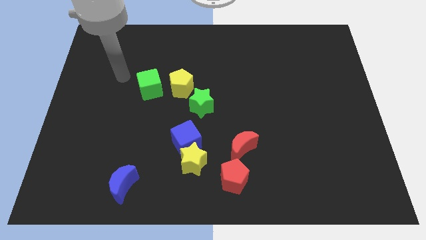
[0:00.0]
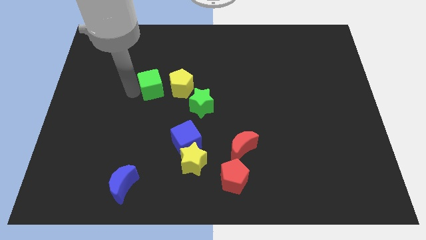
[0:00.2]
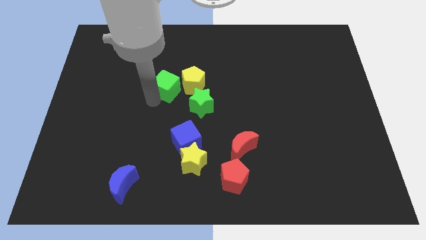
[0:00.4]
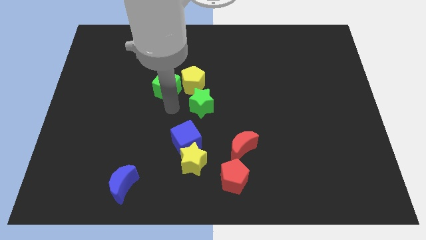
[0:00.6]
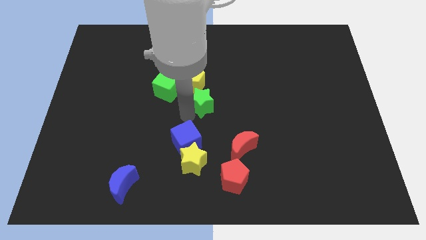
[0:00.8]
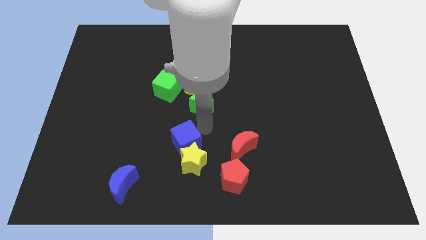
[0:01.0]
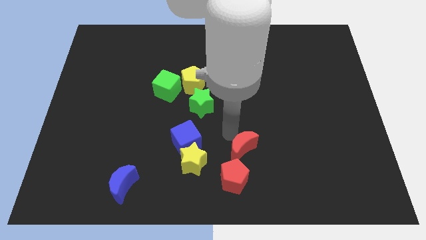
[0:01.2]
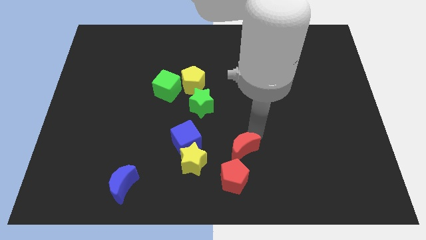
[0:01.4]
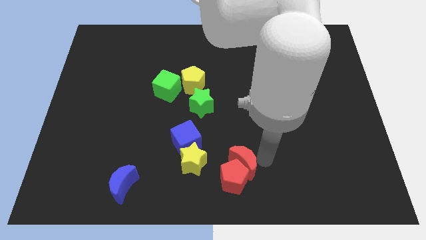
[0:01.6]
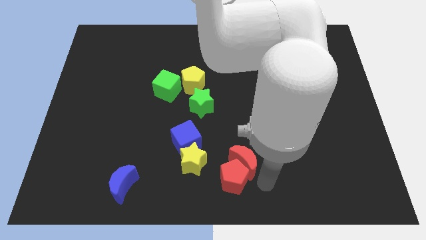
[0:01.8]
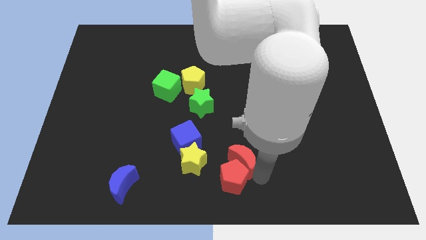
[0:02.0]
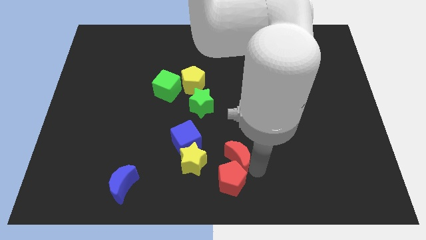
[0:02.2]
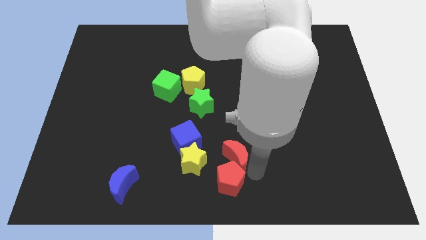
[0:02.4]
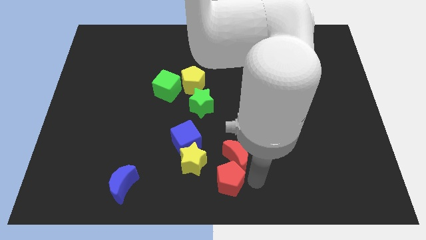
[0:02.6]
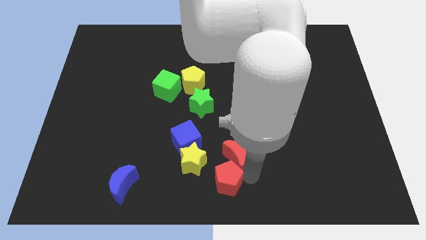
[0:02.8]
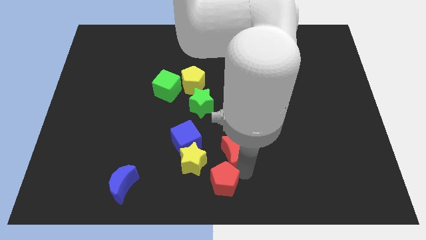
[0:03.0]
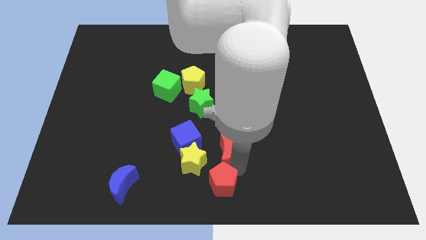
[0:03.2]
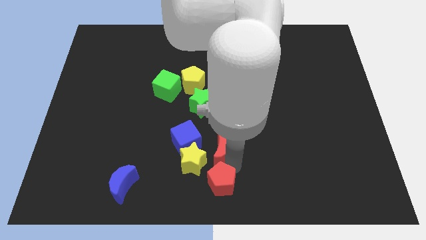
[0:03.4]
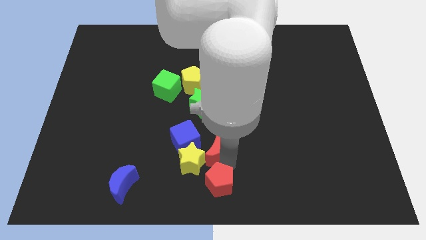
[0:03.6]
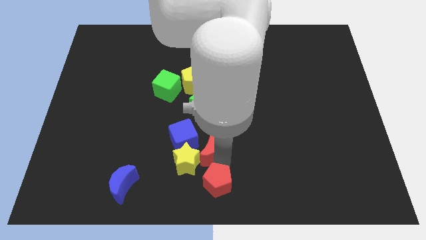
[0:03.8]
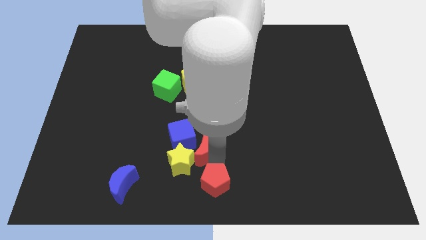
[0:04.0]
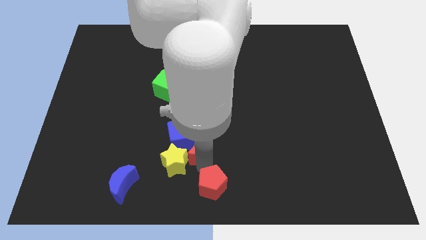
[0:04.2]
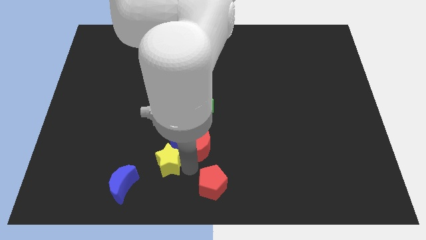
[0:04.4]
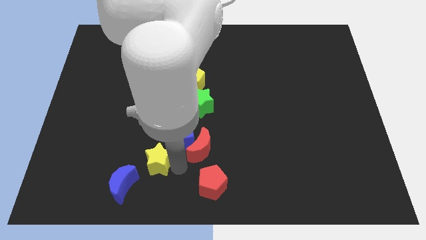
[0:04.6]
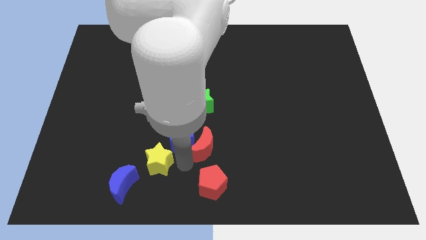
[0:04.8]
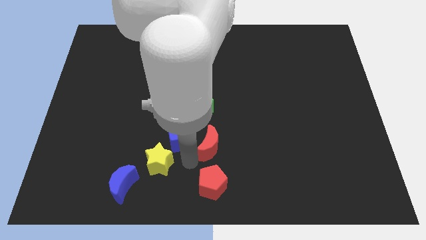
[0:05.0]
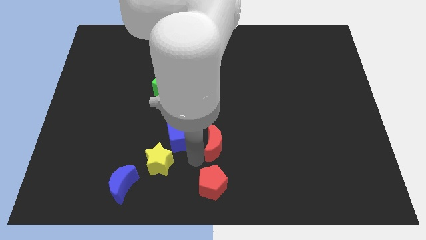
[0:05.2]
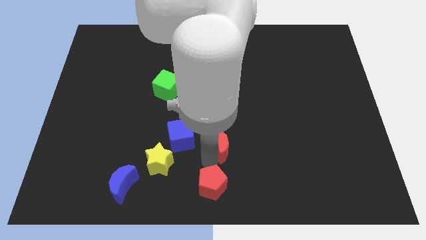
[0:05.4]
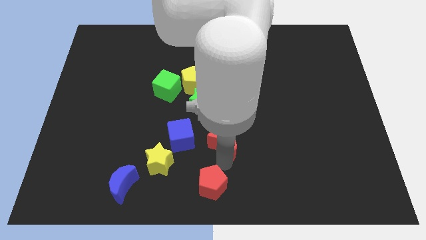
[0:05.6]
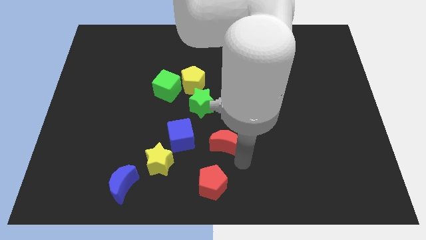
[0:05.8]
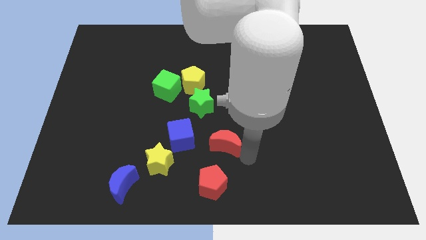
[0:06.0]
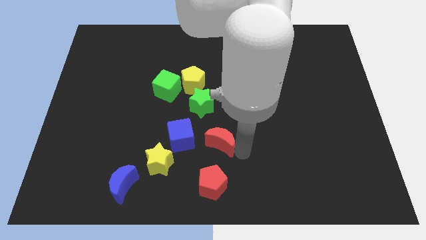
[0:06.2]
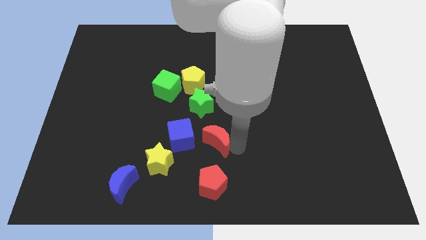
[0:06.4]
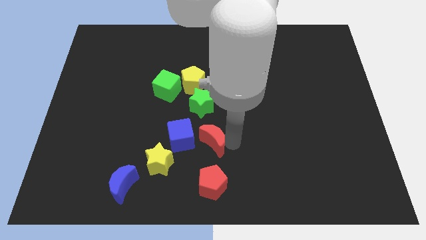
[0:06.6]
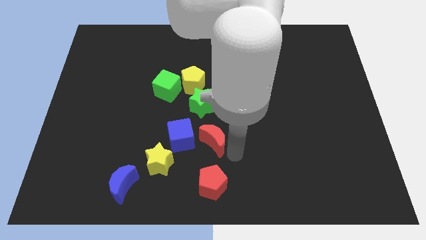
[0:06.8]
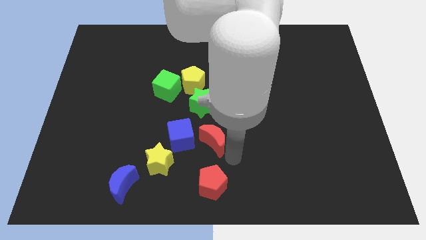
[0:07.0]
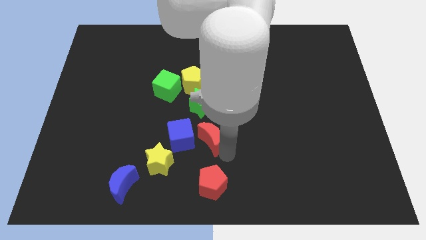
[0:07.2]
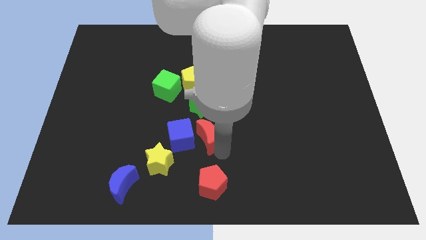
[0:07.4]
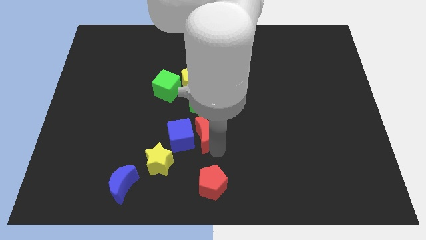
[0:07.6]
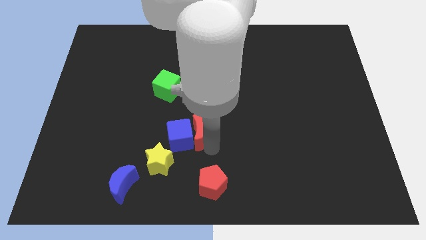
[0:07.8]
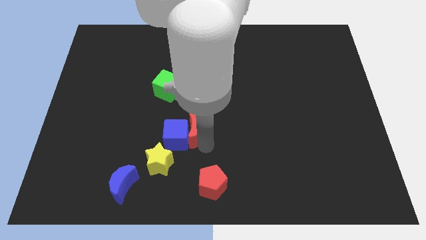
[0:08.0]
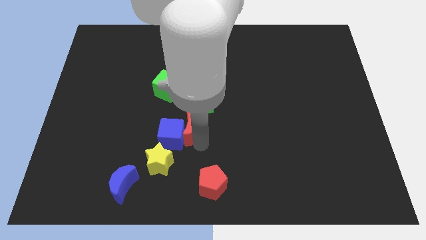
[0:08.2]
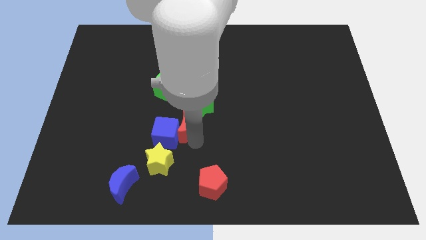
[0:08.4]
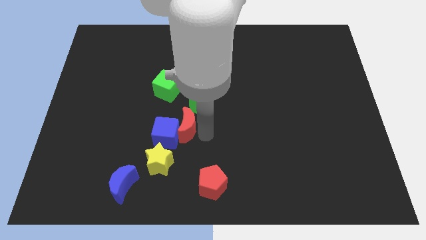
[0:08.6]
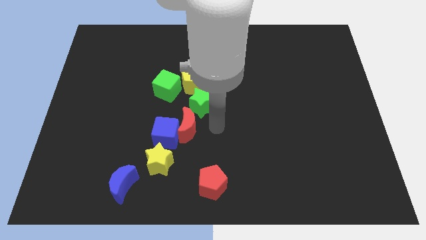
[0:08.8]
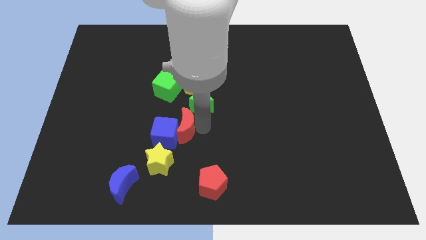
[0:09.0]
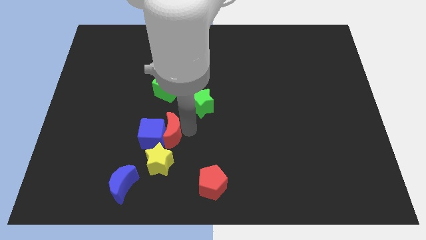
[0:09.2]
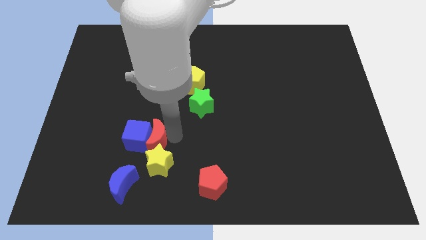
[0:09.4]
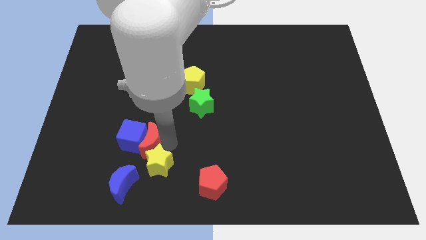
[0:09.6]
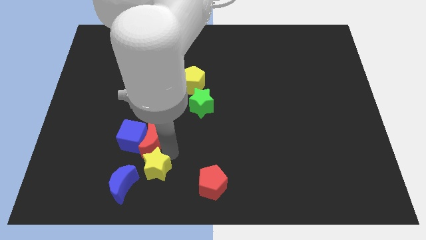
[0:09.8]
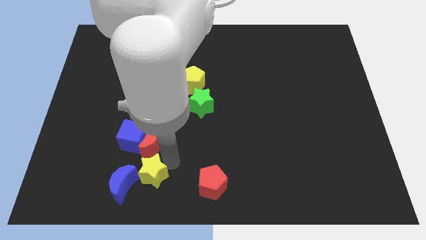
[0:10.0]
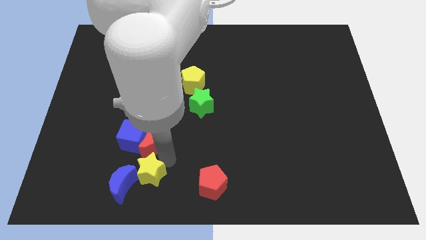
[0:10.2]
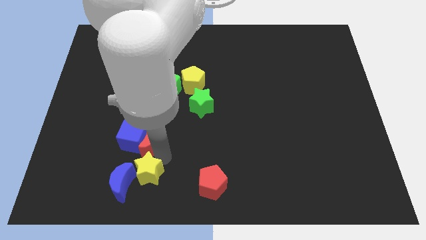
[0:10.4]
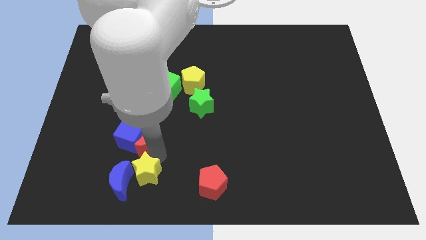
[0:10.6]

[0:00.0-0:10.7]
push the red moon left

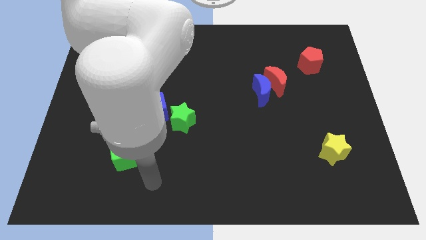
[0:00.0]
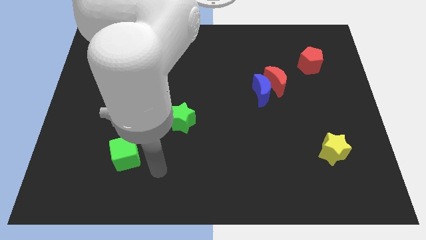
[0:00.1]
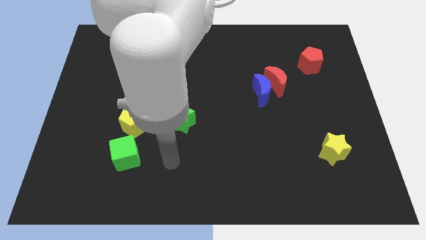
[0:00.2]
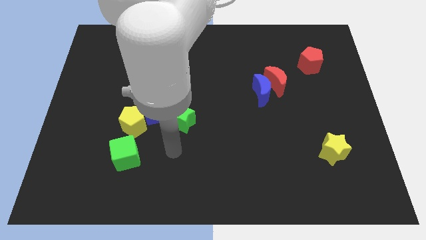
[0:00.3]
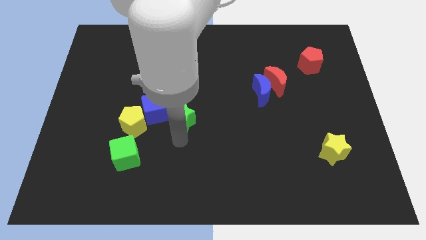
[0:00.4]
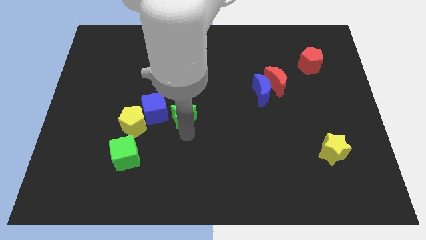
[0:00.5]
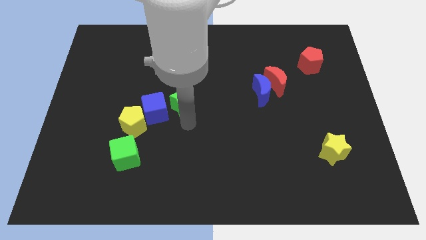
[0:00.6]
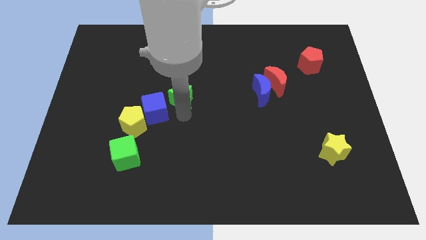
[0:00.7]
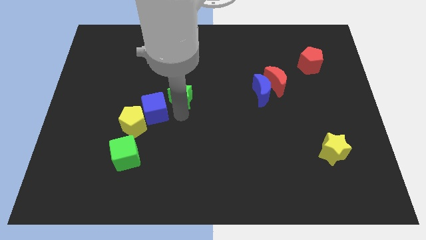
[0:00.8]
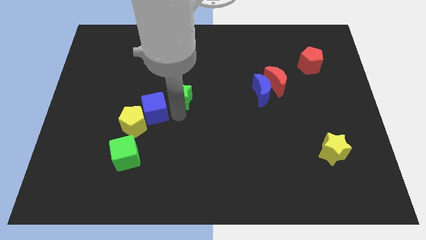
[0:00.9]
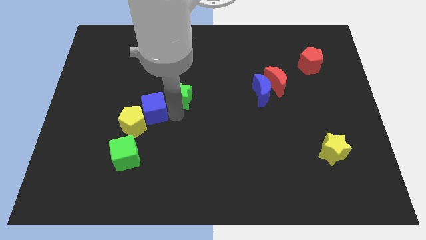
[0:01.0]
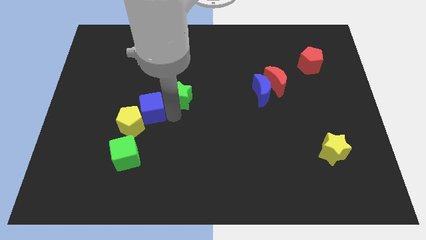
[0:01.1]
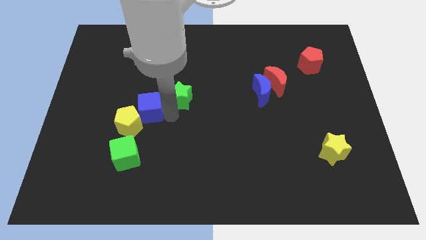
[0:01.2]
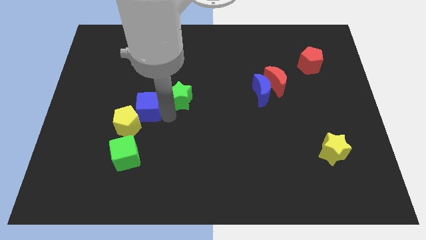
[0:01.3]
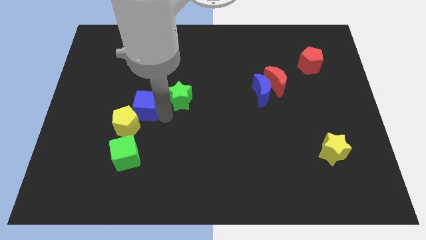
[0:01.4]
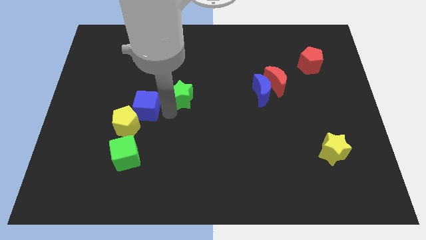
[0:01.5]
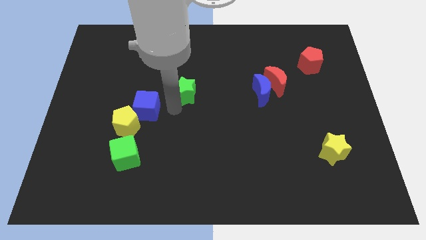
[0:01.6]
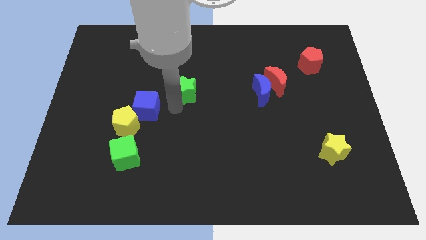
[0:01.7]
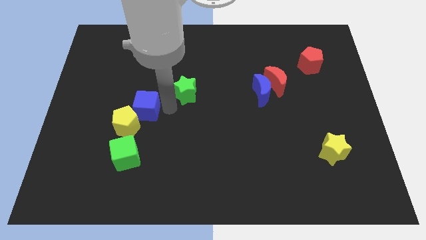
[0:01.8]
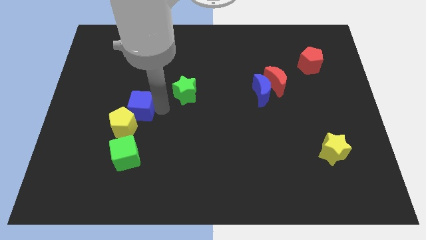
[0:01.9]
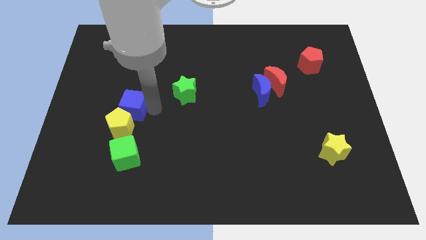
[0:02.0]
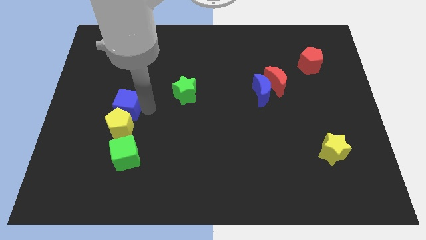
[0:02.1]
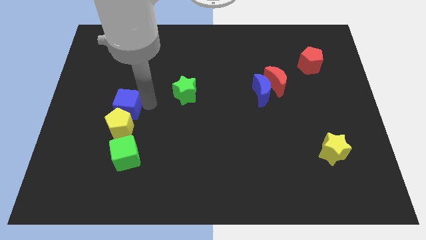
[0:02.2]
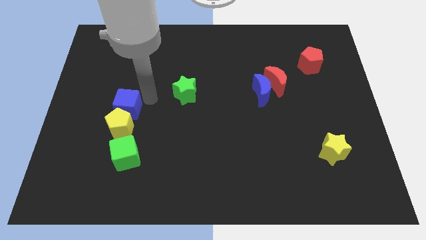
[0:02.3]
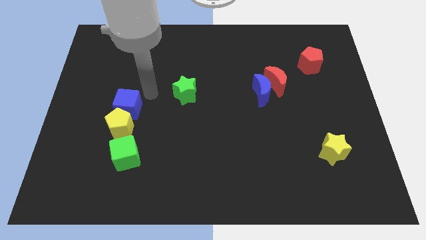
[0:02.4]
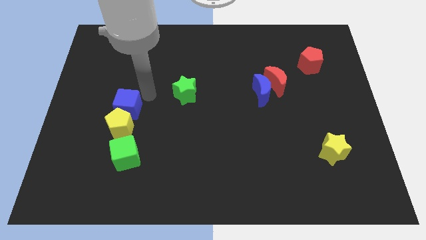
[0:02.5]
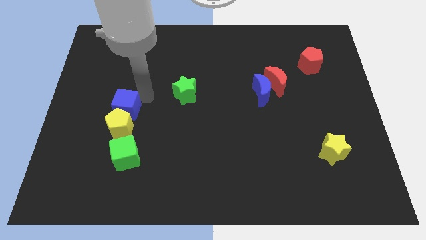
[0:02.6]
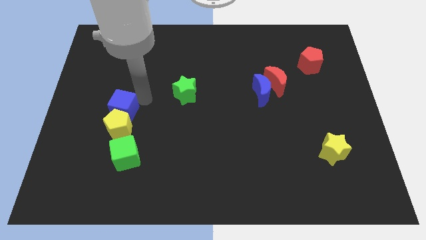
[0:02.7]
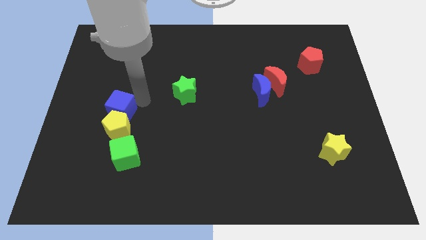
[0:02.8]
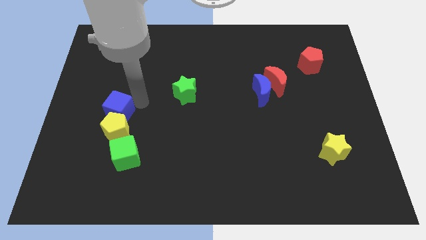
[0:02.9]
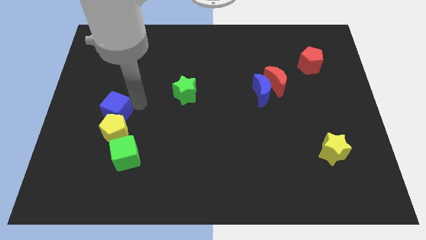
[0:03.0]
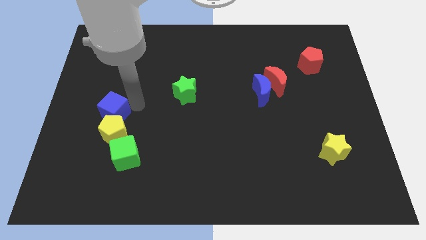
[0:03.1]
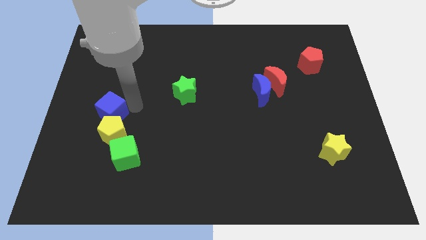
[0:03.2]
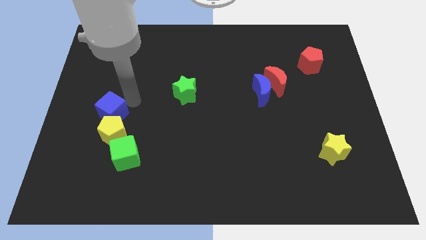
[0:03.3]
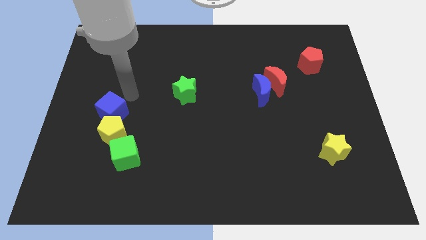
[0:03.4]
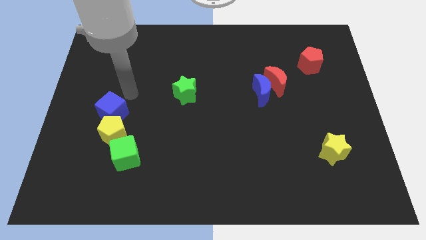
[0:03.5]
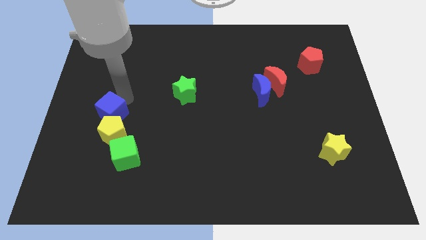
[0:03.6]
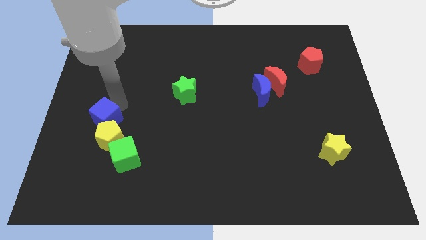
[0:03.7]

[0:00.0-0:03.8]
slightly move the blue cube downwards and to the left diagonally
